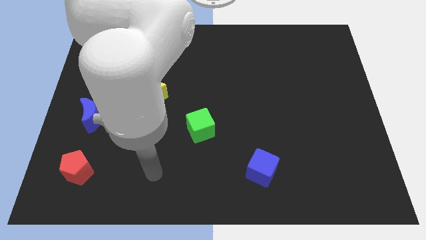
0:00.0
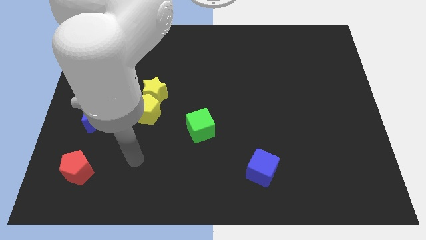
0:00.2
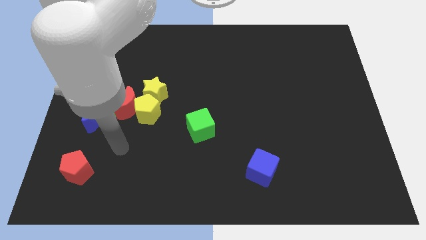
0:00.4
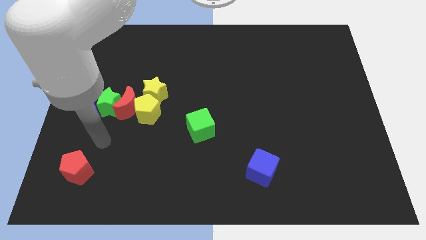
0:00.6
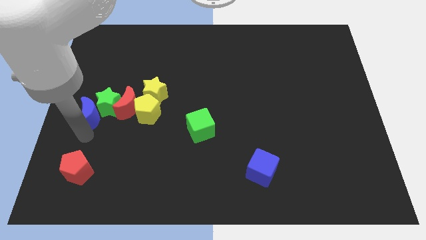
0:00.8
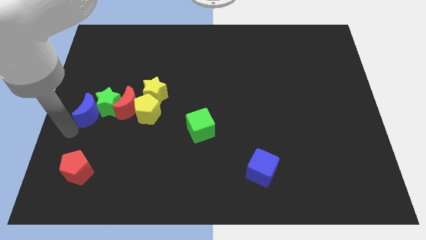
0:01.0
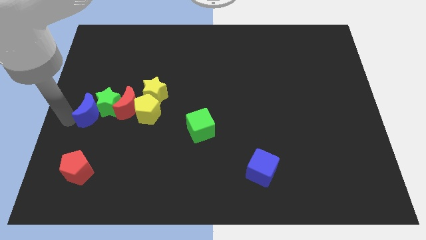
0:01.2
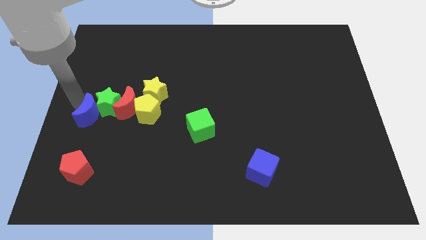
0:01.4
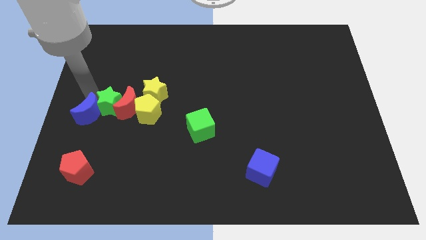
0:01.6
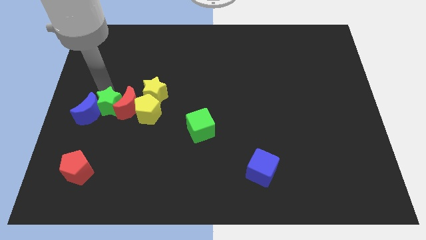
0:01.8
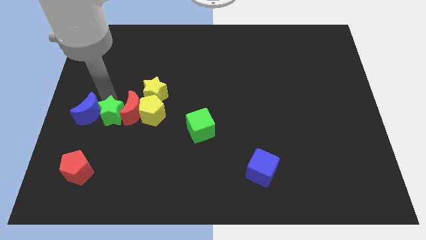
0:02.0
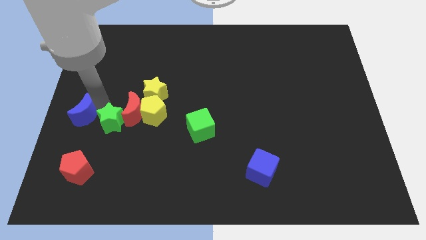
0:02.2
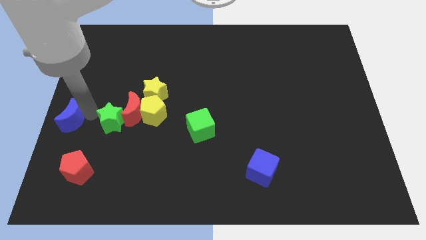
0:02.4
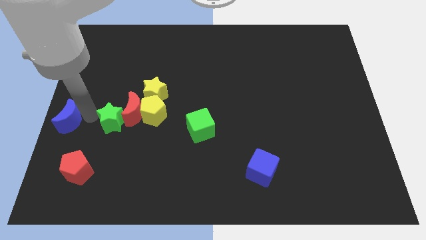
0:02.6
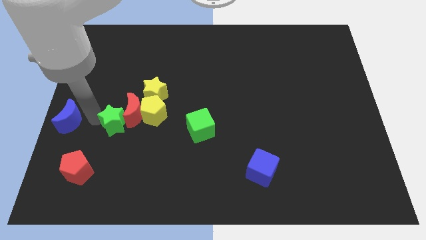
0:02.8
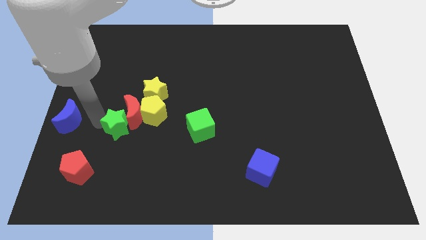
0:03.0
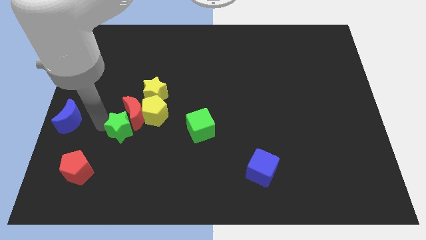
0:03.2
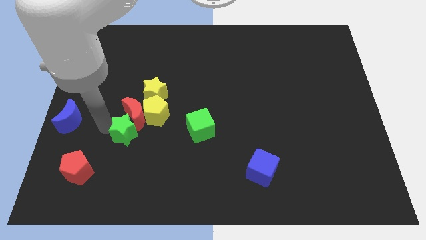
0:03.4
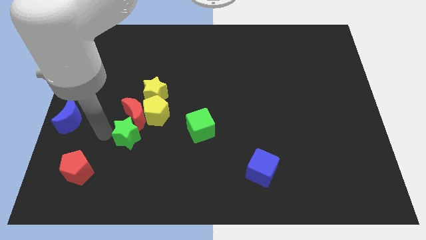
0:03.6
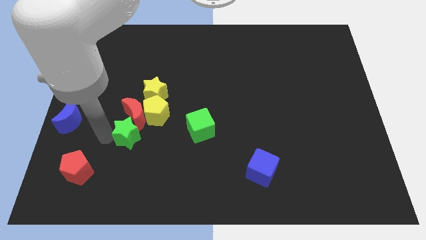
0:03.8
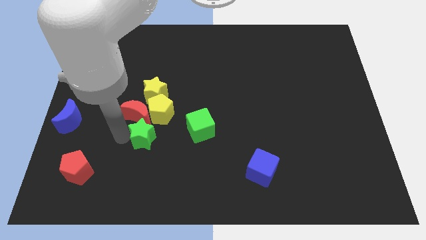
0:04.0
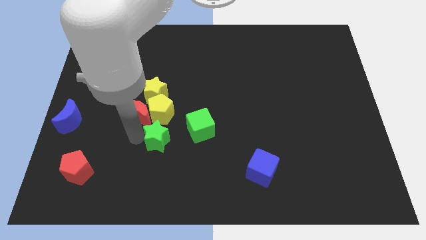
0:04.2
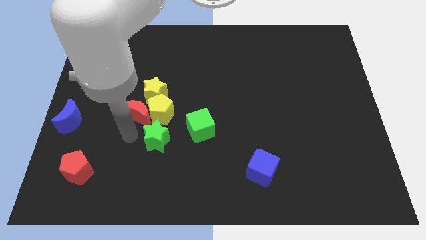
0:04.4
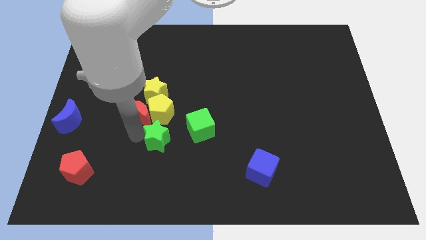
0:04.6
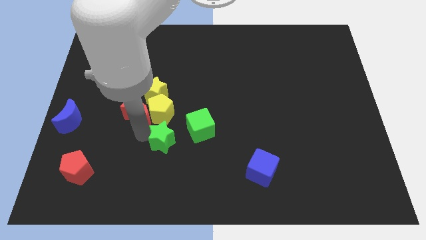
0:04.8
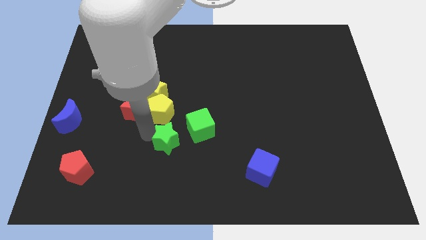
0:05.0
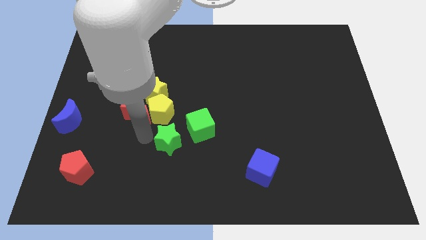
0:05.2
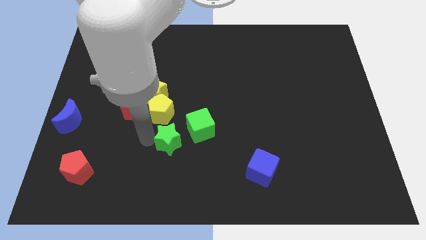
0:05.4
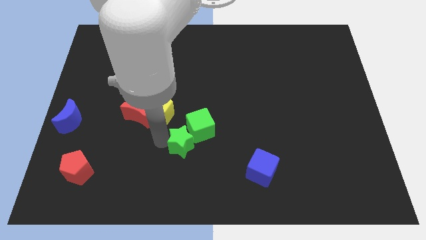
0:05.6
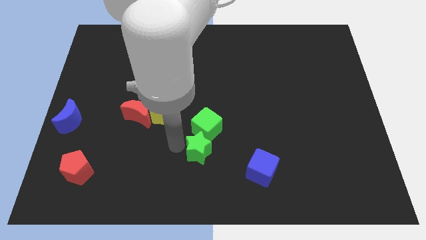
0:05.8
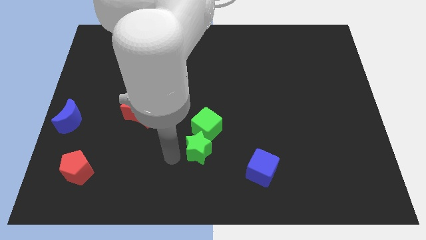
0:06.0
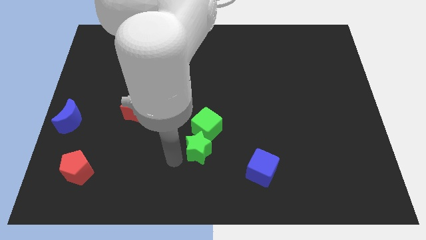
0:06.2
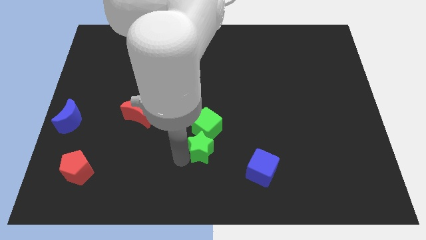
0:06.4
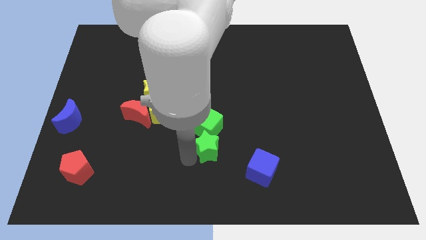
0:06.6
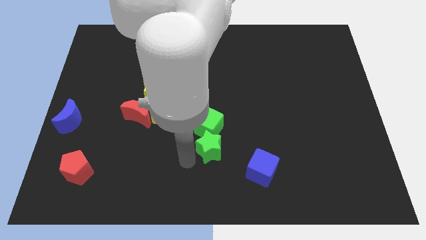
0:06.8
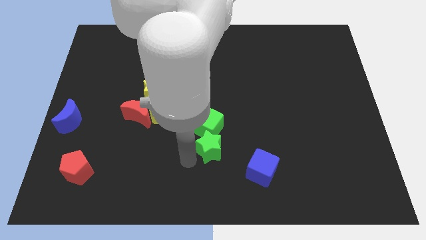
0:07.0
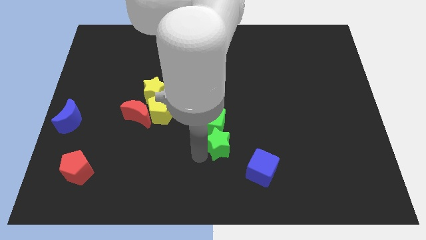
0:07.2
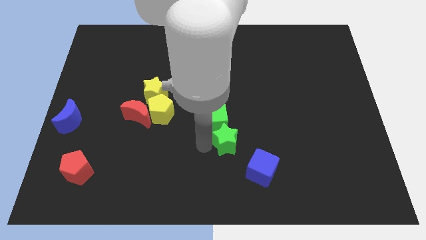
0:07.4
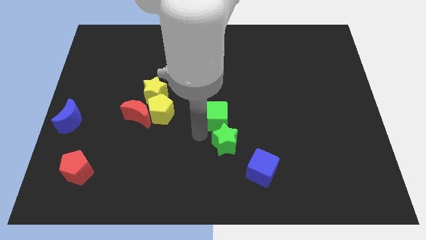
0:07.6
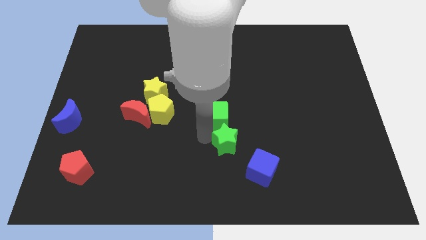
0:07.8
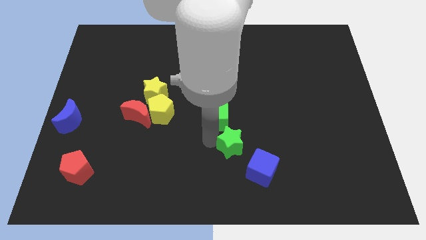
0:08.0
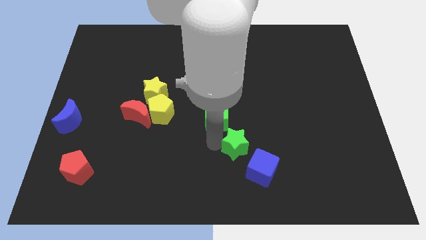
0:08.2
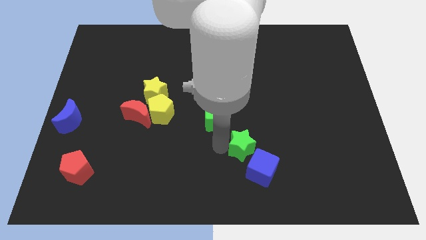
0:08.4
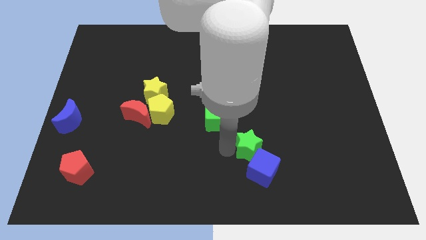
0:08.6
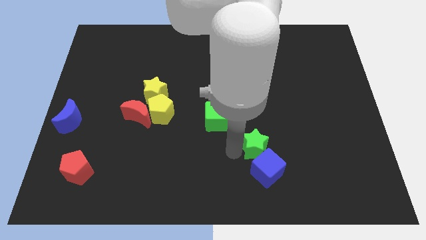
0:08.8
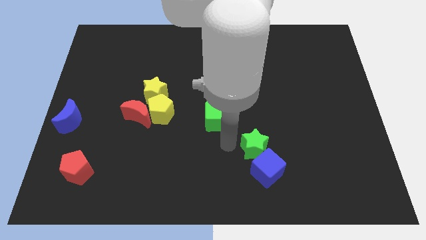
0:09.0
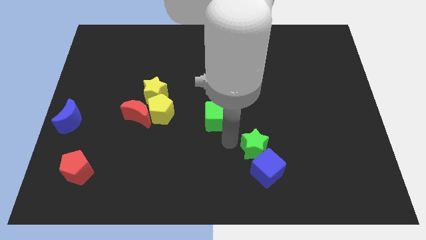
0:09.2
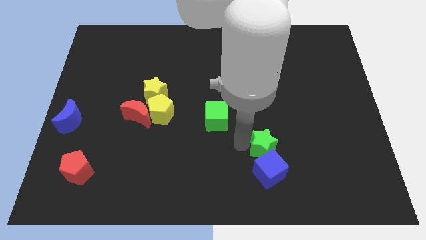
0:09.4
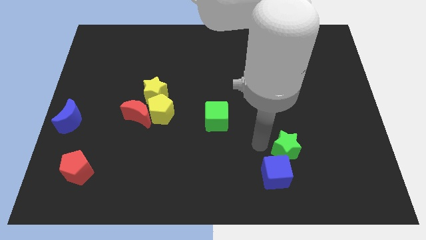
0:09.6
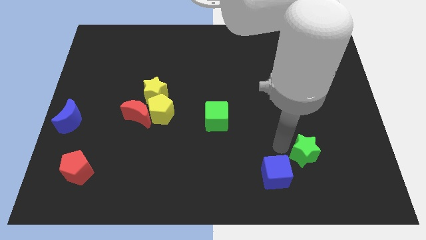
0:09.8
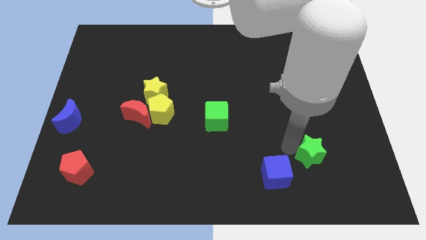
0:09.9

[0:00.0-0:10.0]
push the green star right of the blue cube

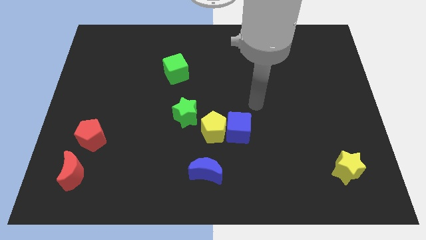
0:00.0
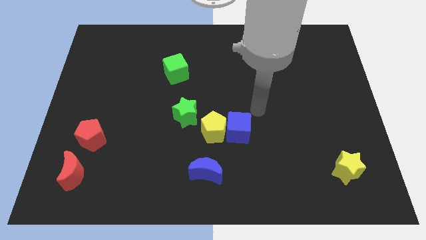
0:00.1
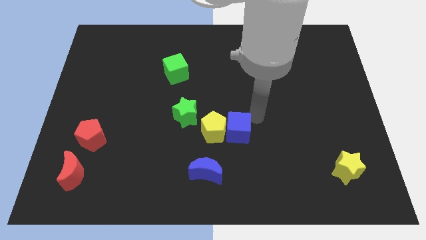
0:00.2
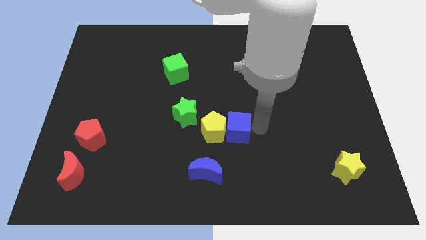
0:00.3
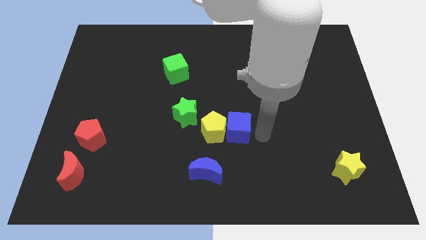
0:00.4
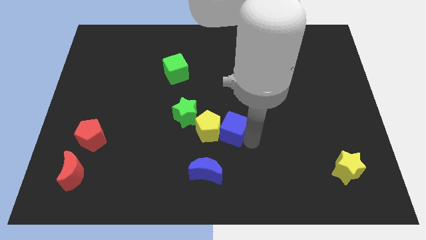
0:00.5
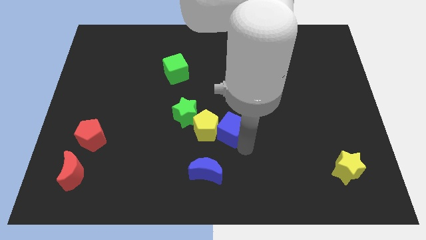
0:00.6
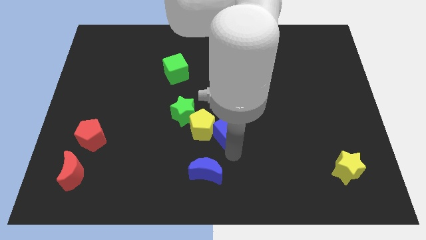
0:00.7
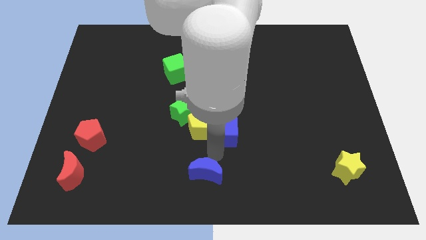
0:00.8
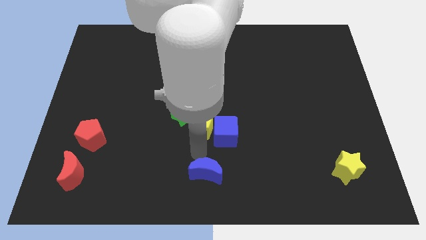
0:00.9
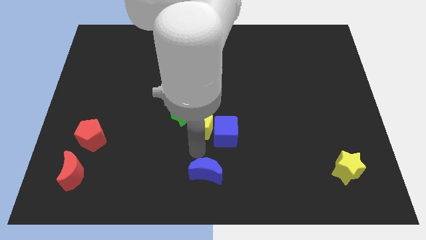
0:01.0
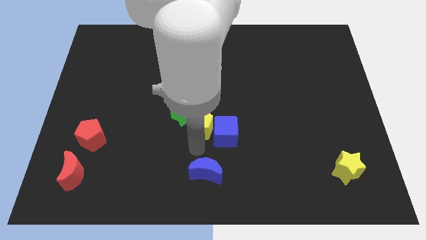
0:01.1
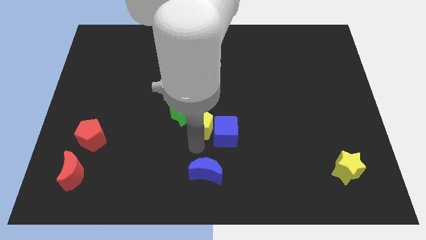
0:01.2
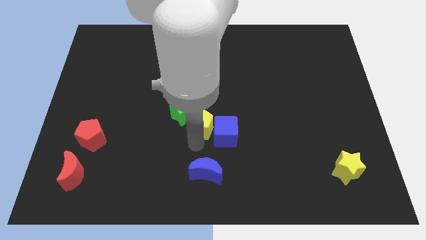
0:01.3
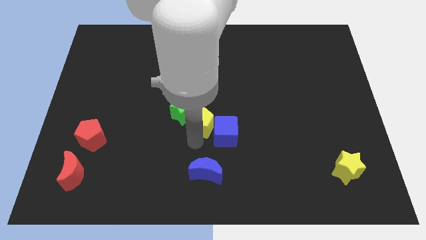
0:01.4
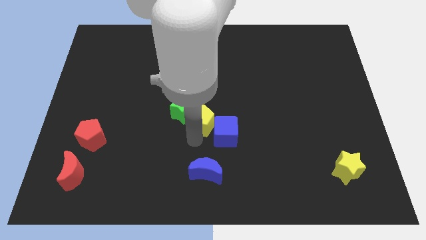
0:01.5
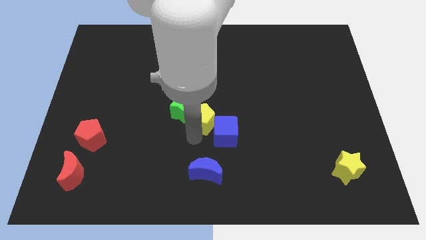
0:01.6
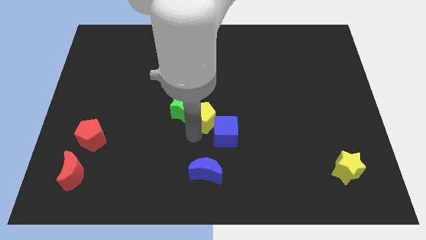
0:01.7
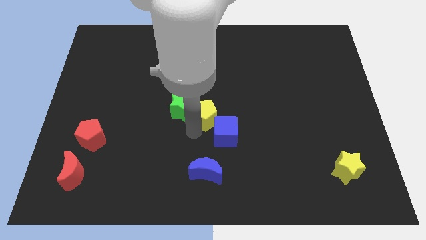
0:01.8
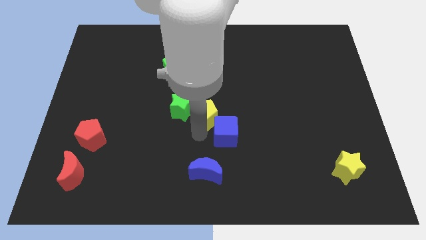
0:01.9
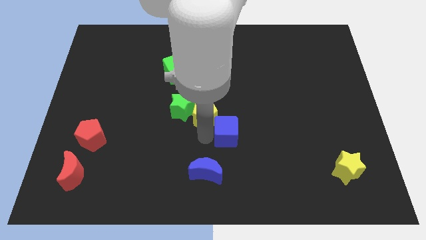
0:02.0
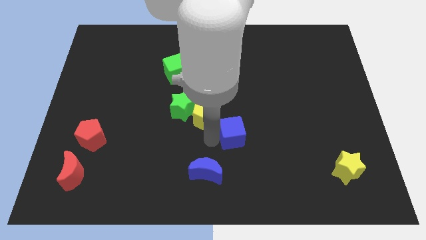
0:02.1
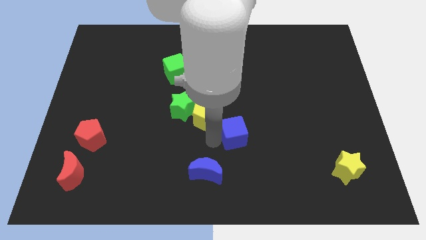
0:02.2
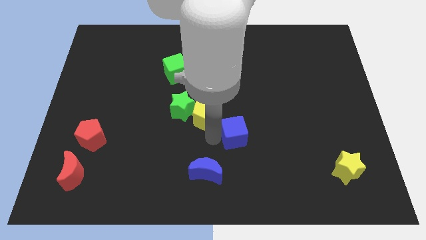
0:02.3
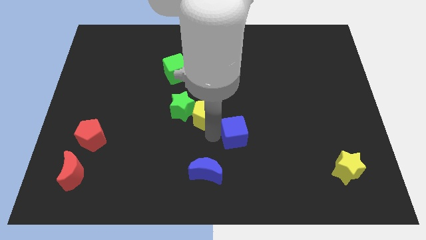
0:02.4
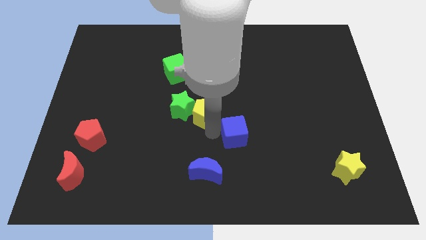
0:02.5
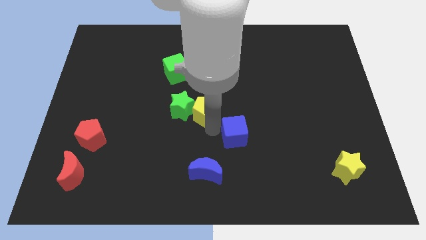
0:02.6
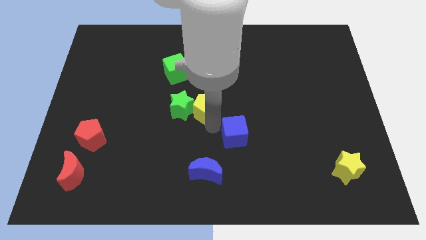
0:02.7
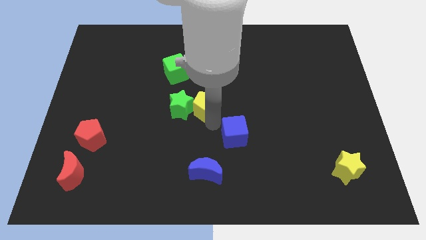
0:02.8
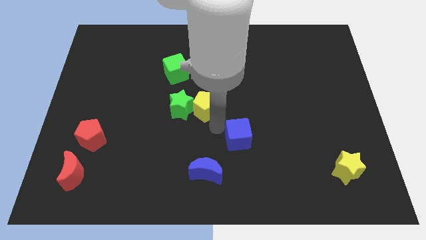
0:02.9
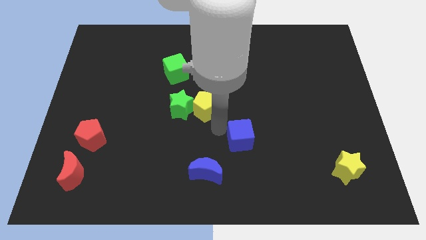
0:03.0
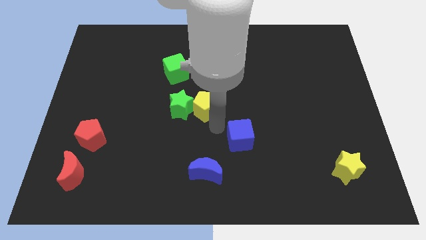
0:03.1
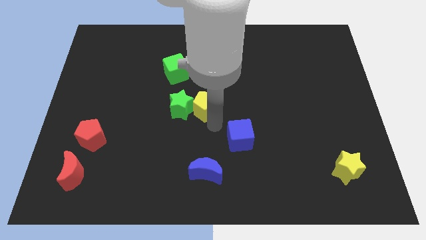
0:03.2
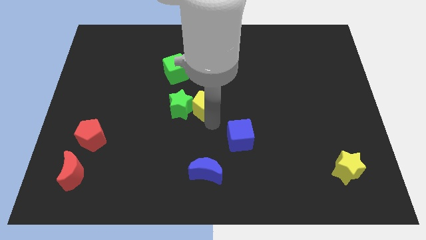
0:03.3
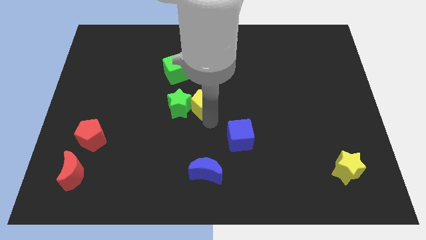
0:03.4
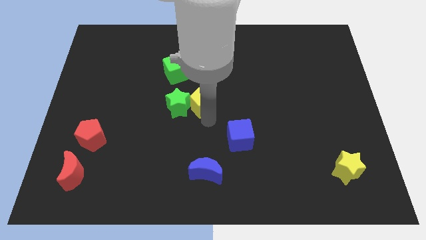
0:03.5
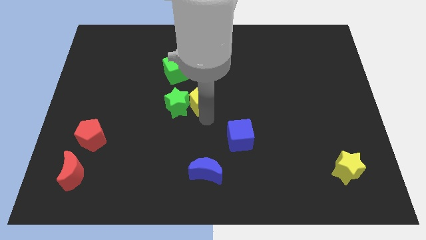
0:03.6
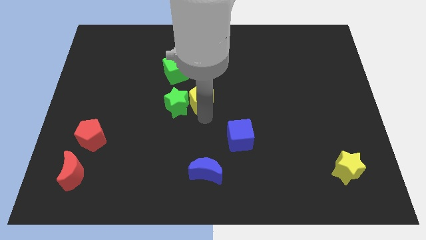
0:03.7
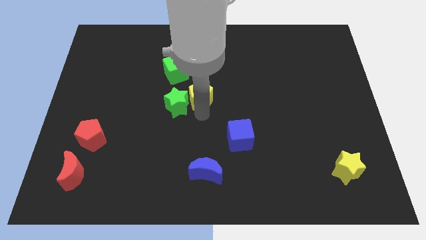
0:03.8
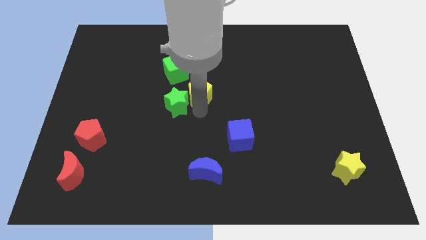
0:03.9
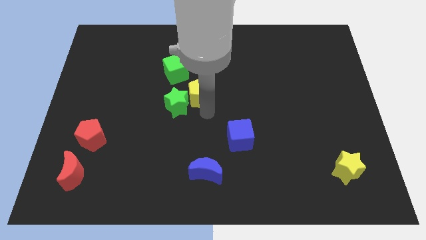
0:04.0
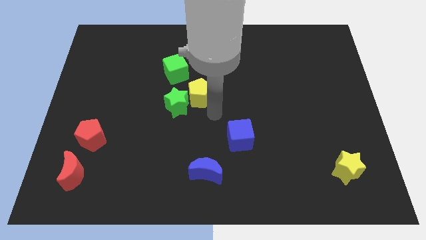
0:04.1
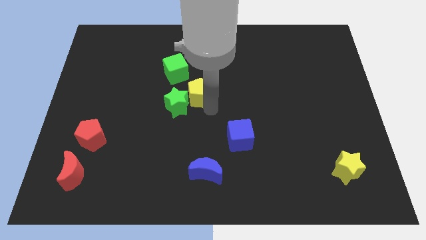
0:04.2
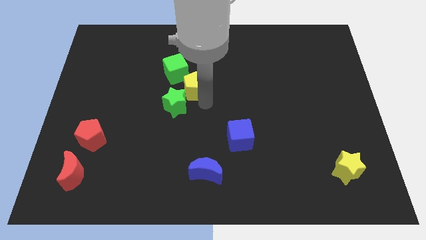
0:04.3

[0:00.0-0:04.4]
move the yellow pentagon to the top side of the green star
